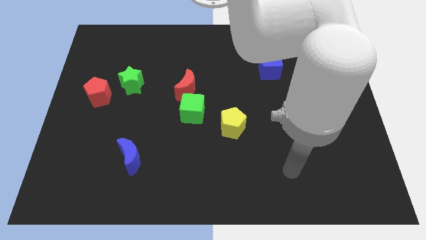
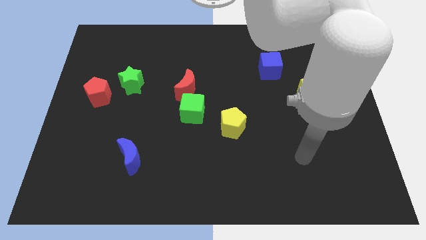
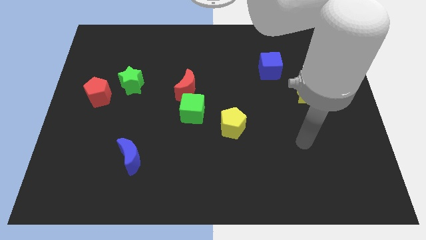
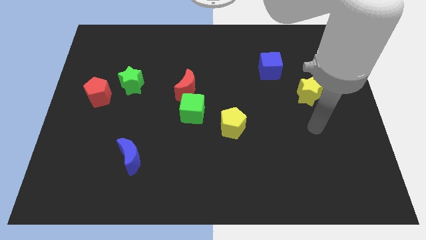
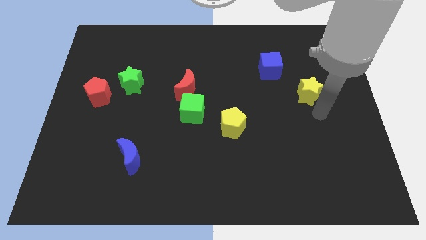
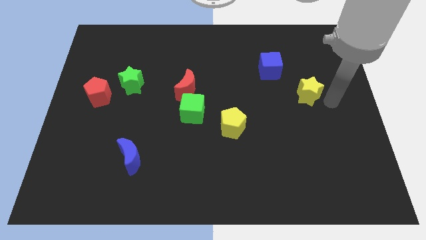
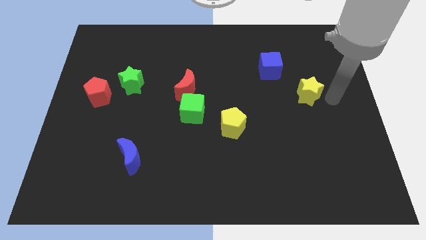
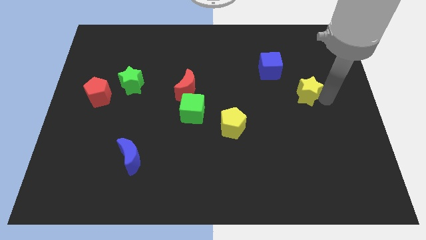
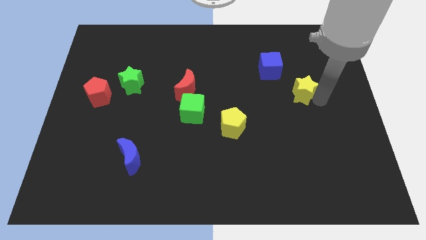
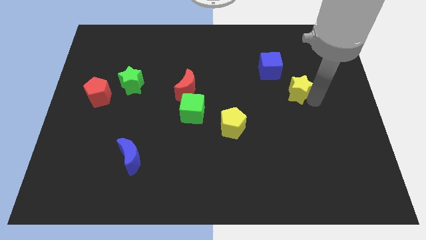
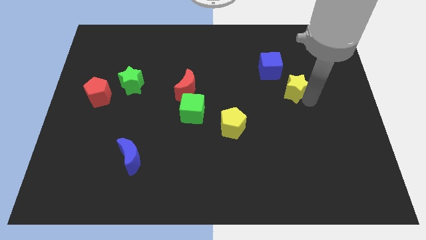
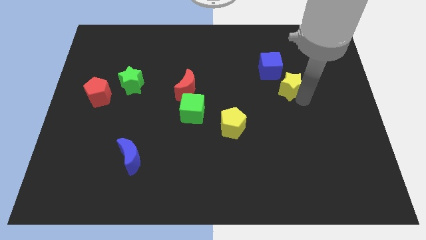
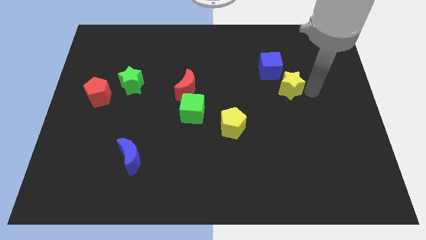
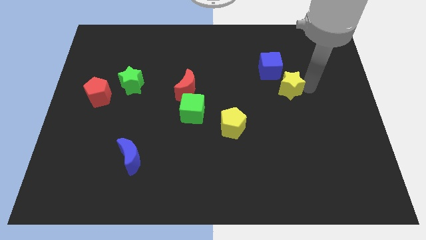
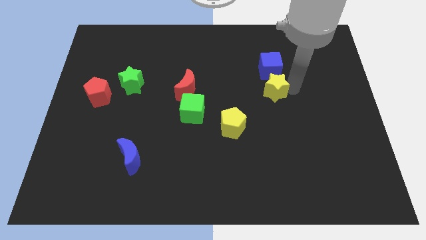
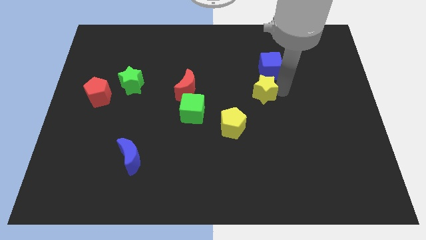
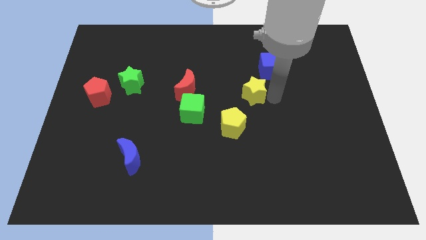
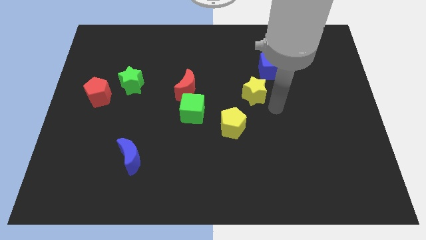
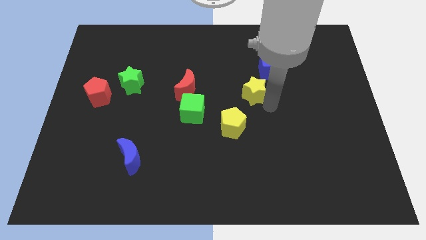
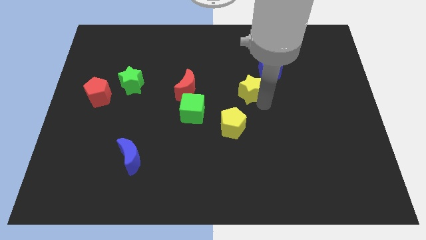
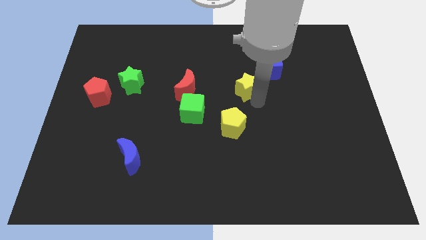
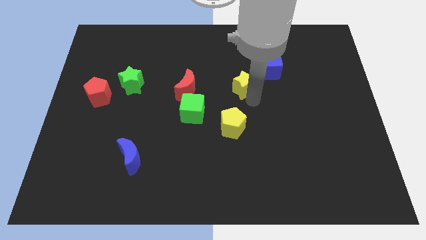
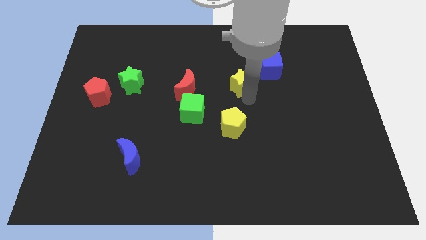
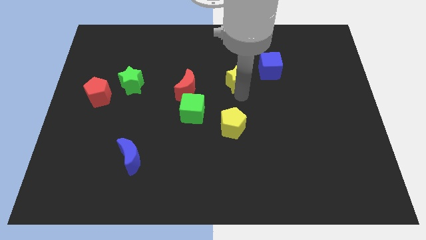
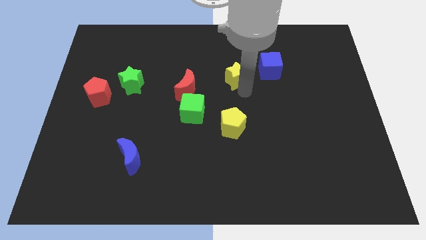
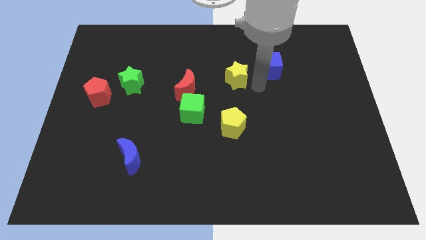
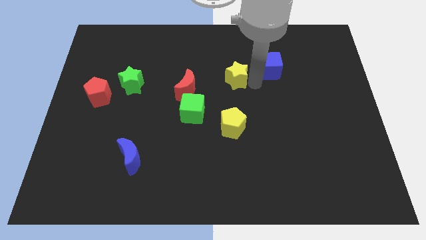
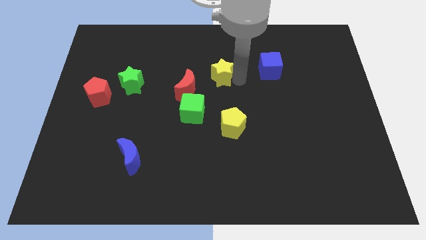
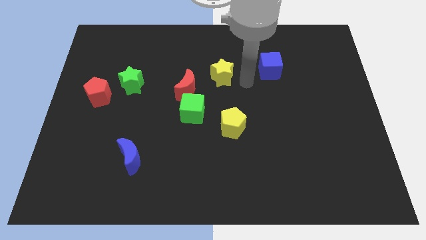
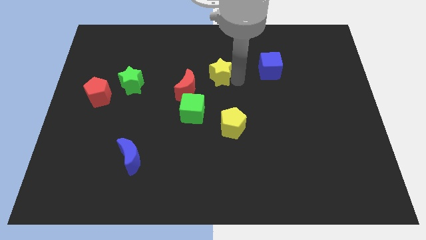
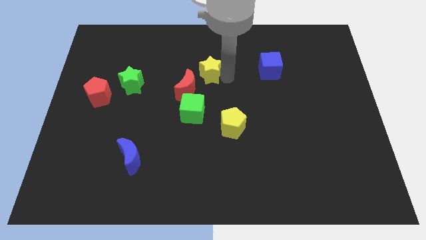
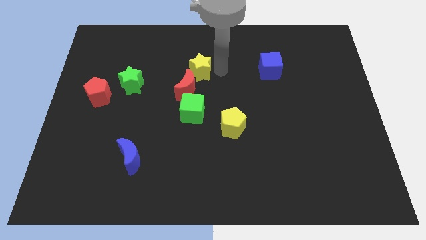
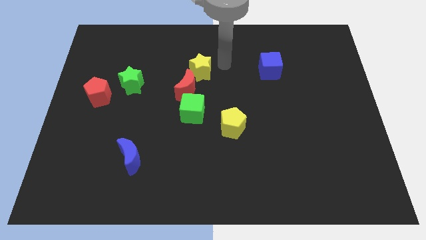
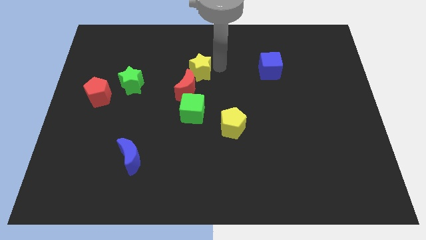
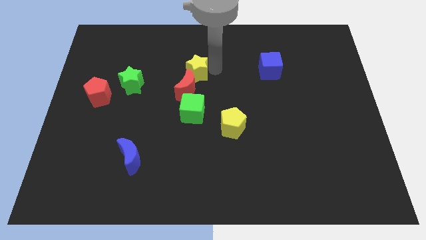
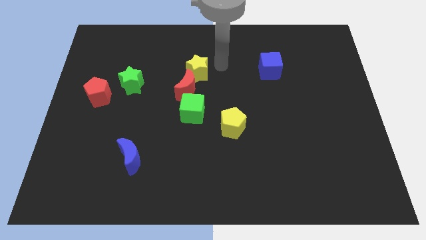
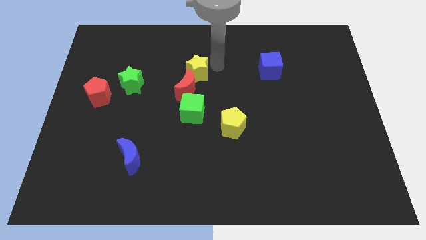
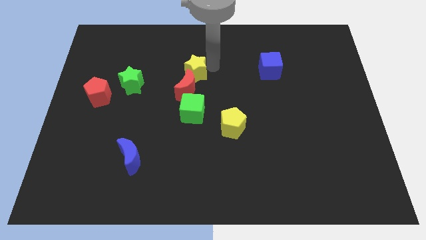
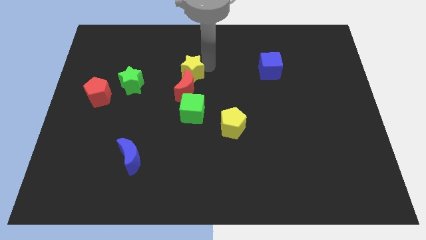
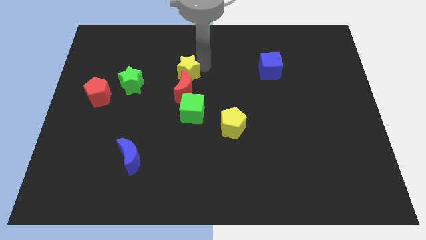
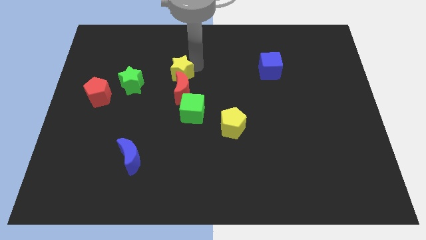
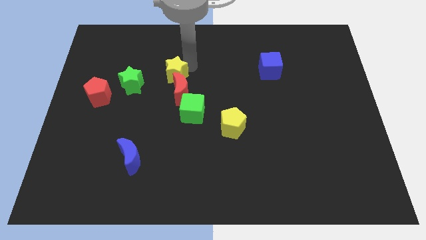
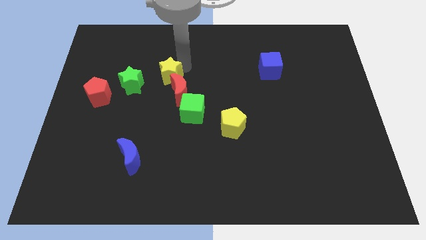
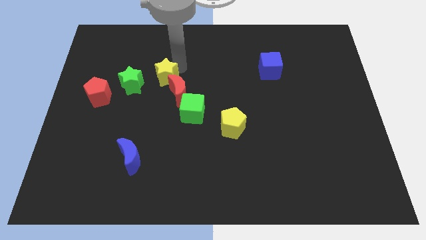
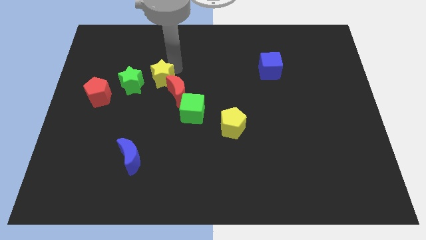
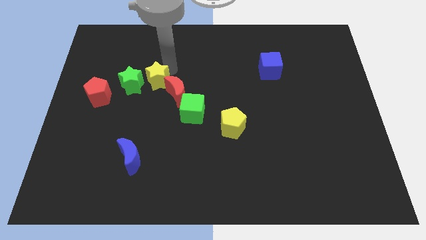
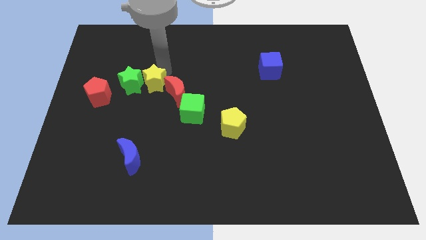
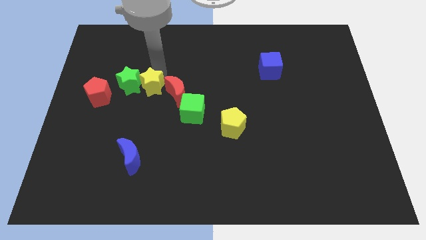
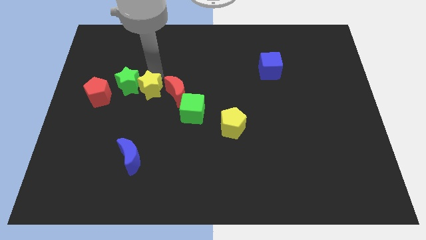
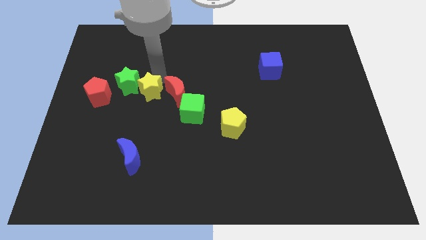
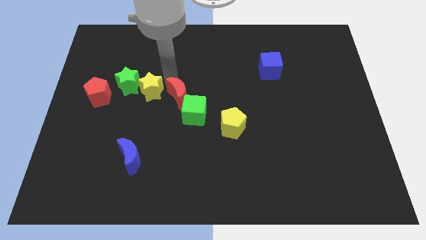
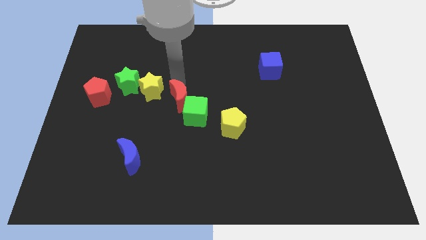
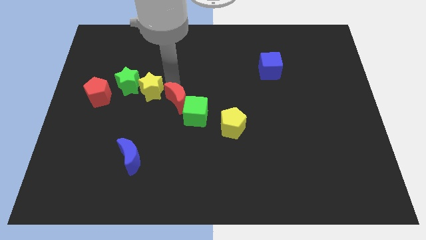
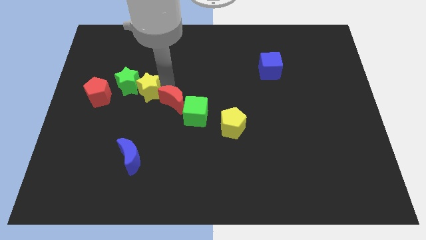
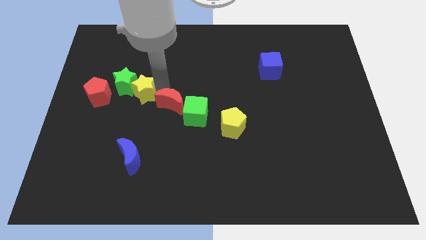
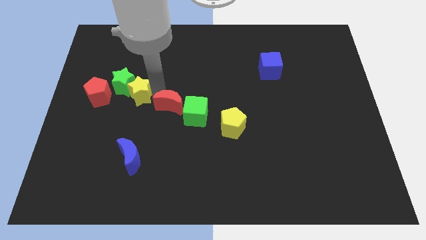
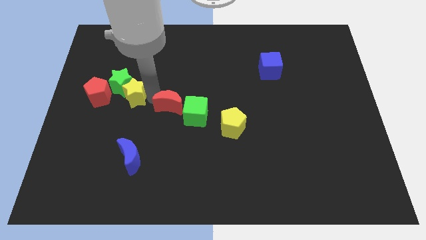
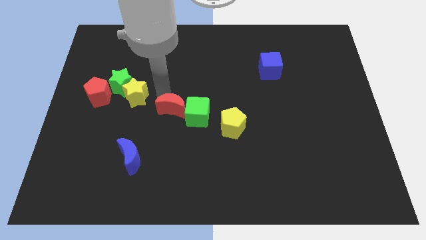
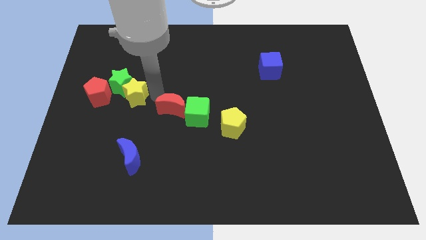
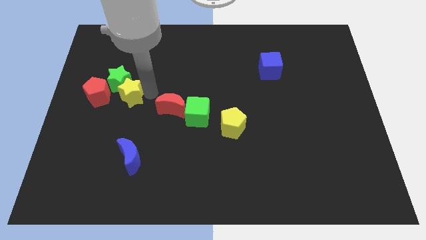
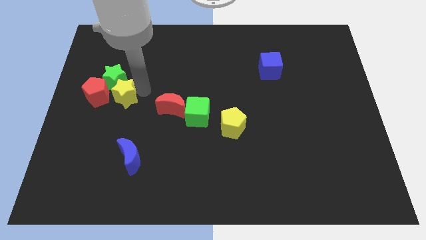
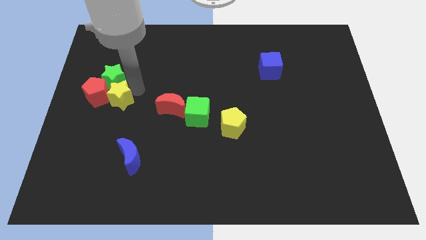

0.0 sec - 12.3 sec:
slide the yellow star towards the red pentagon

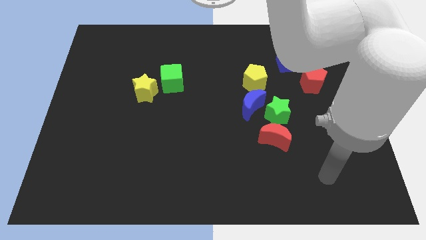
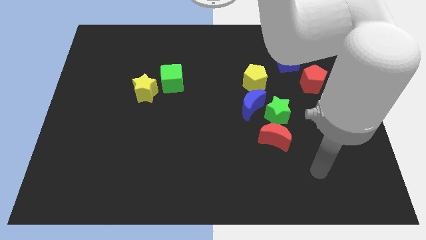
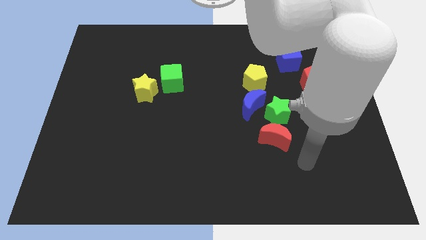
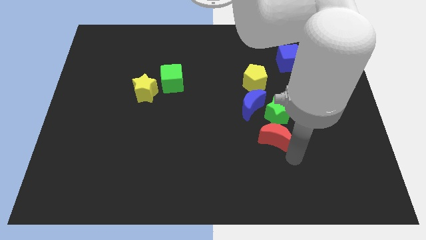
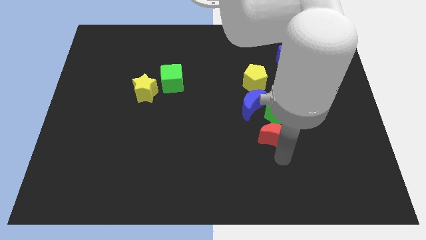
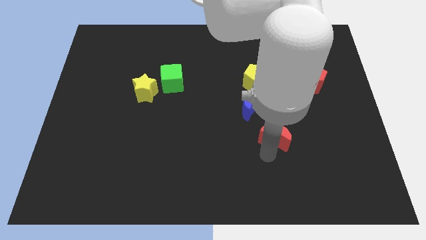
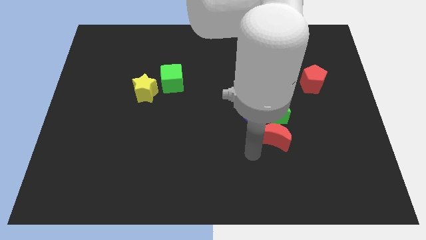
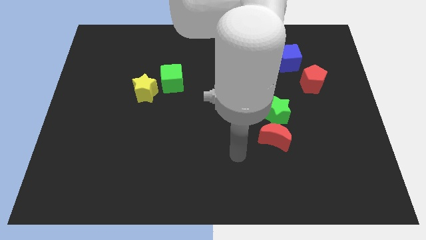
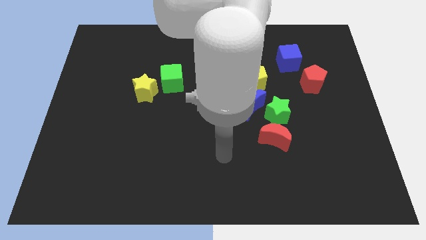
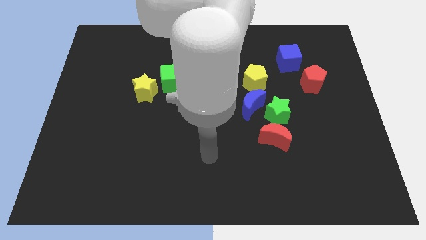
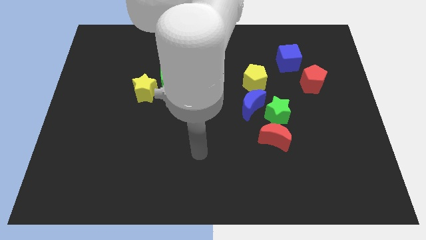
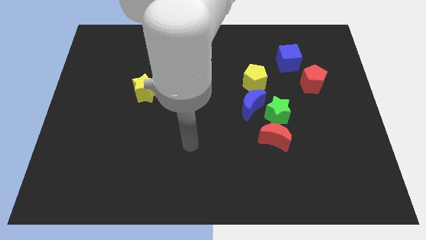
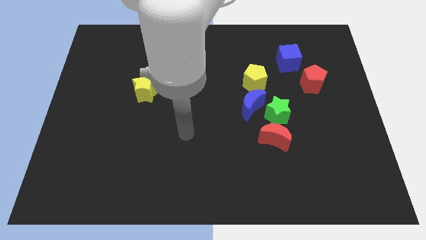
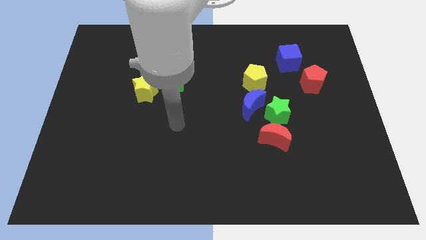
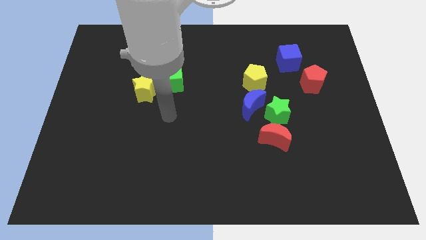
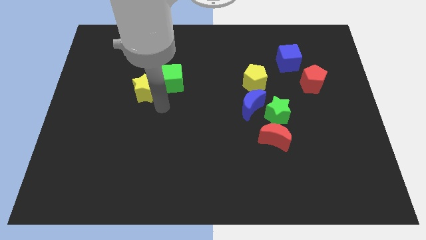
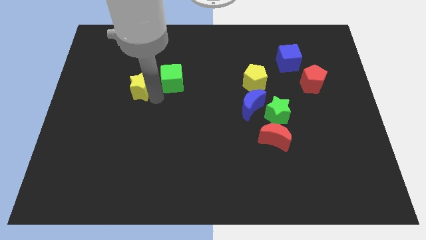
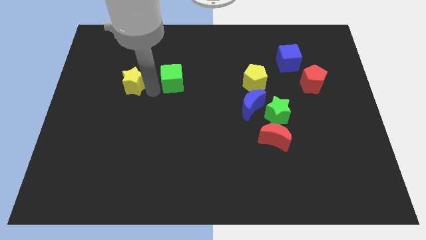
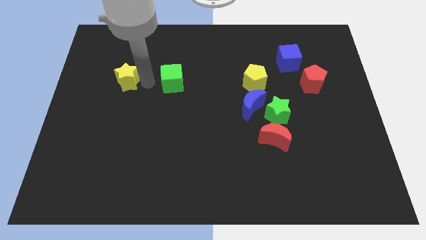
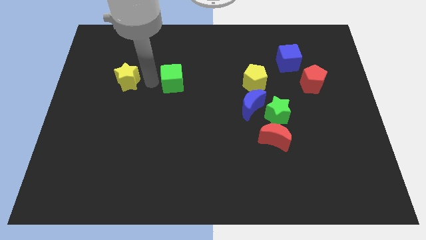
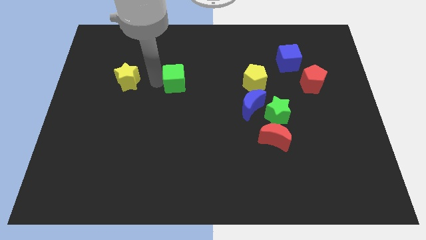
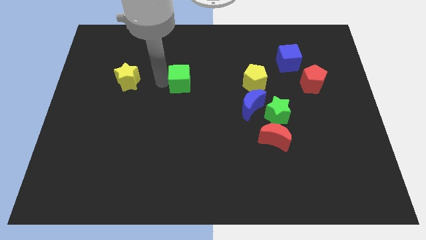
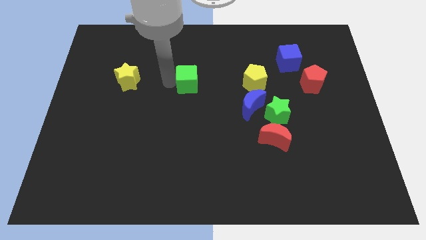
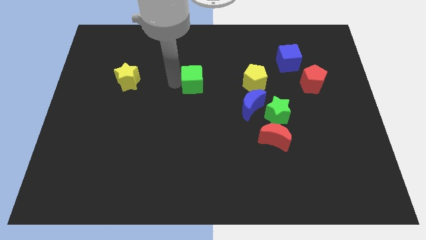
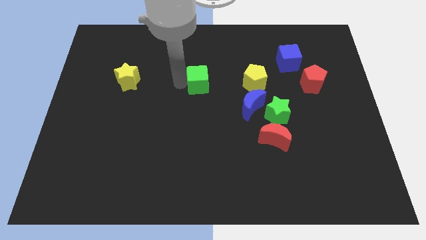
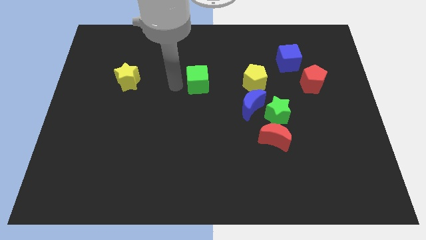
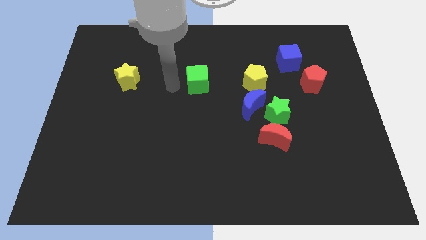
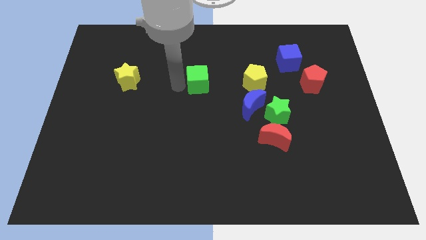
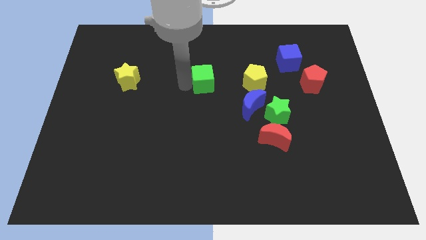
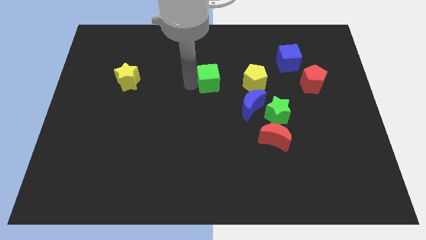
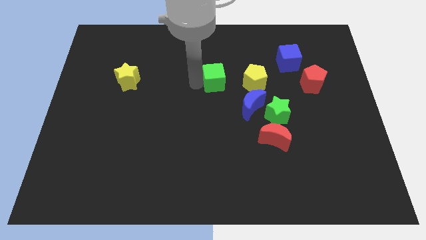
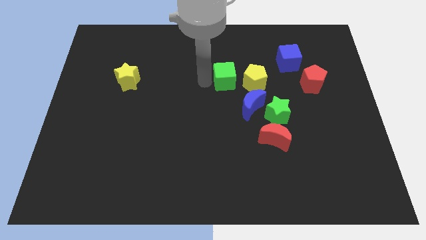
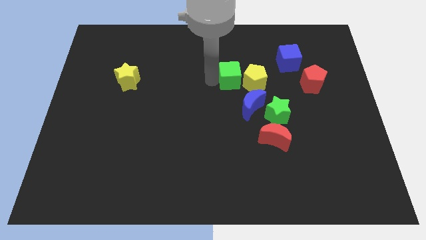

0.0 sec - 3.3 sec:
move the green cube next to the yellow pentagon
